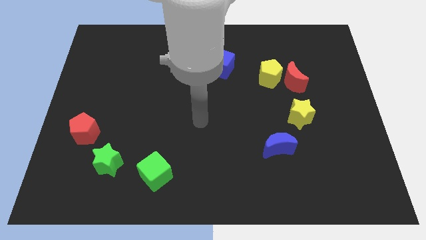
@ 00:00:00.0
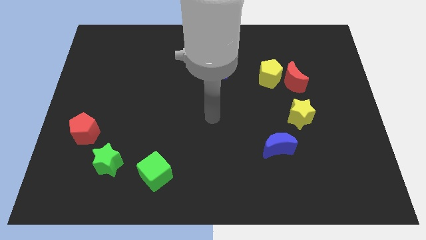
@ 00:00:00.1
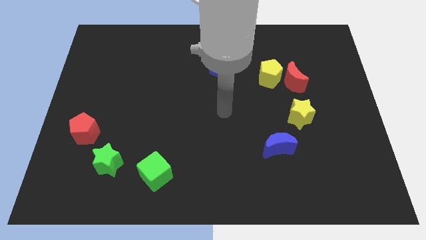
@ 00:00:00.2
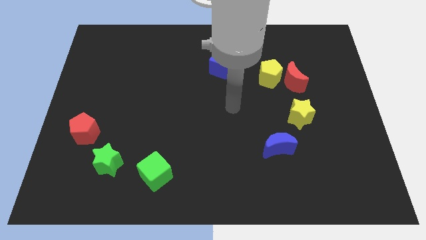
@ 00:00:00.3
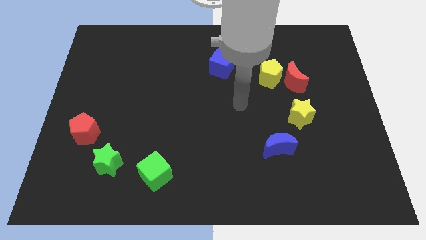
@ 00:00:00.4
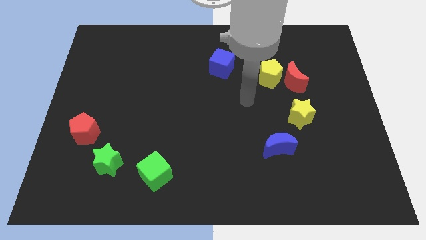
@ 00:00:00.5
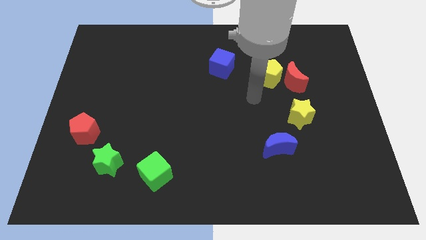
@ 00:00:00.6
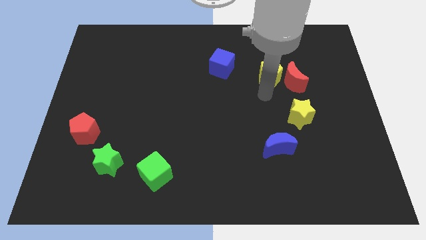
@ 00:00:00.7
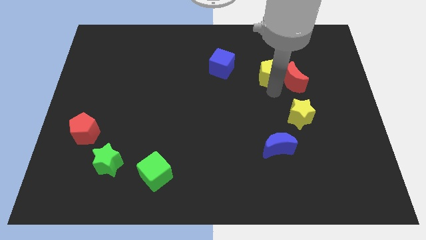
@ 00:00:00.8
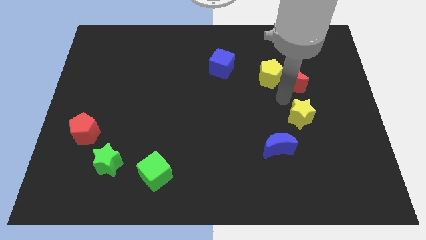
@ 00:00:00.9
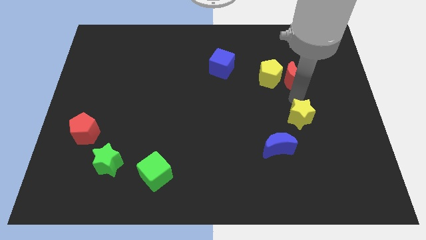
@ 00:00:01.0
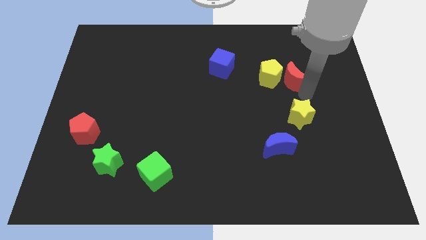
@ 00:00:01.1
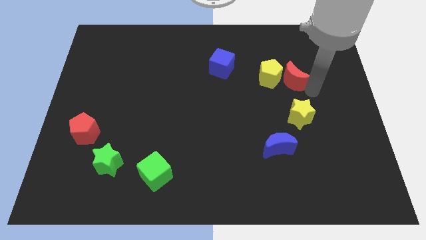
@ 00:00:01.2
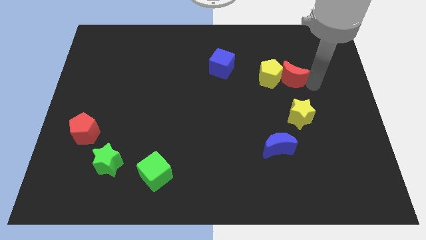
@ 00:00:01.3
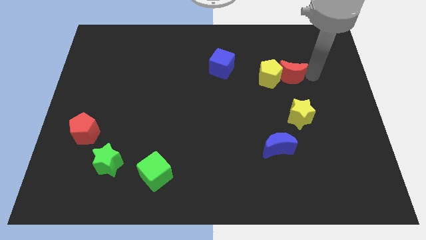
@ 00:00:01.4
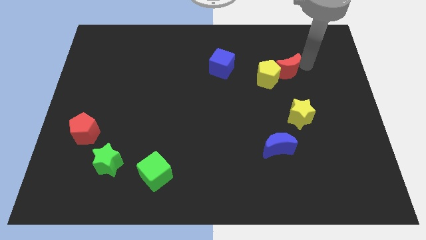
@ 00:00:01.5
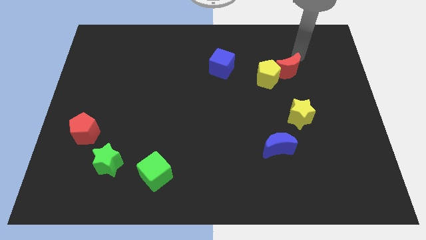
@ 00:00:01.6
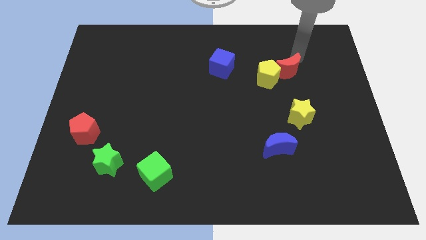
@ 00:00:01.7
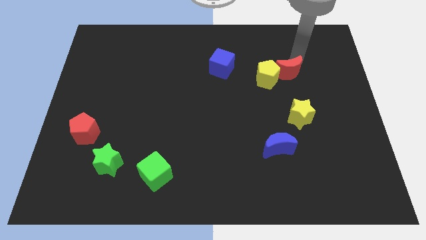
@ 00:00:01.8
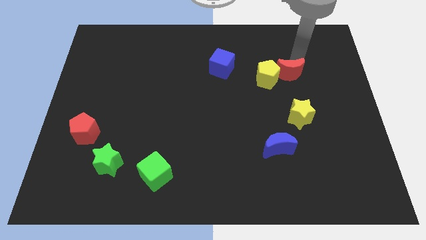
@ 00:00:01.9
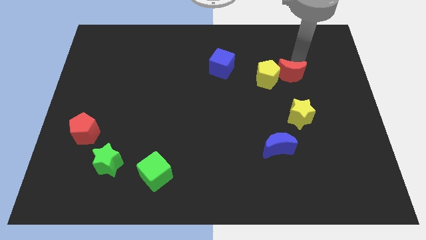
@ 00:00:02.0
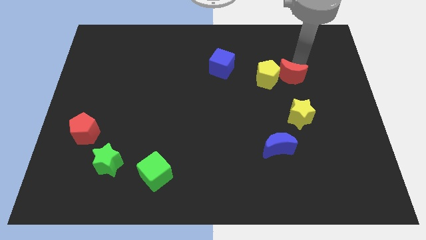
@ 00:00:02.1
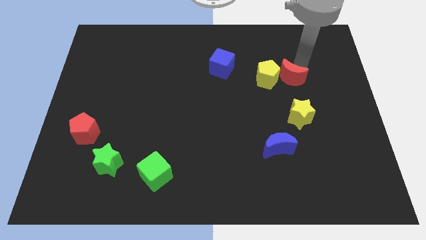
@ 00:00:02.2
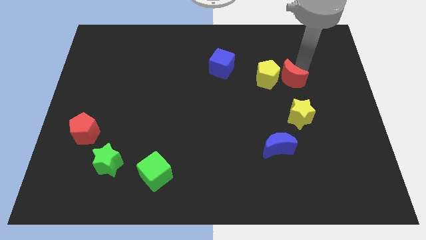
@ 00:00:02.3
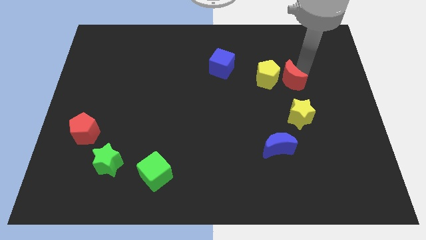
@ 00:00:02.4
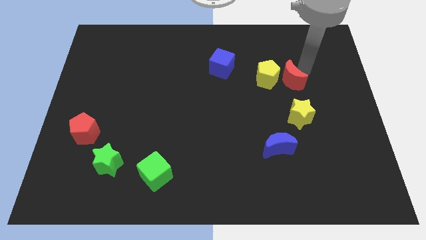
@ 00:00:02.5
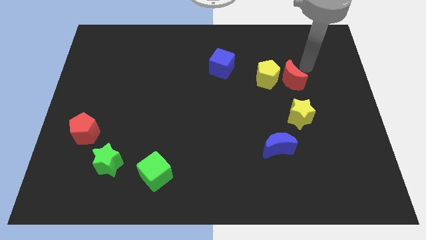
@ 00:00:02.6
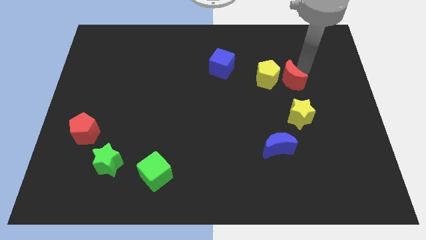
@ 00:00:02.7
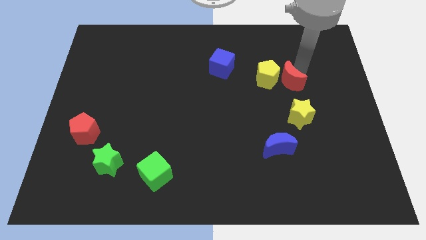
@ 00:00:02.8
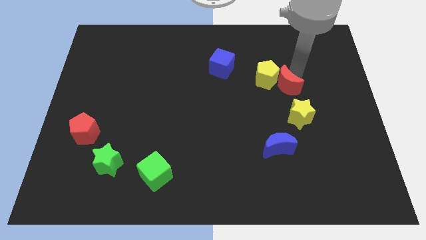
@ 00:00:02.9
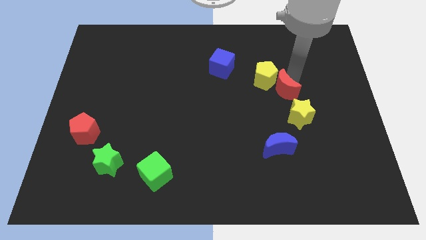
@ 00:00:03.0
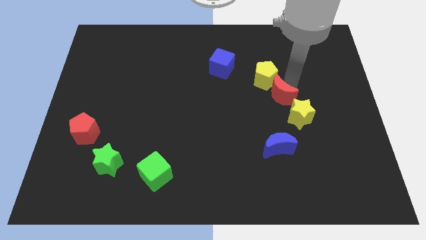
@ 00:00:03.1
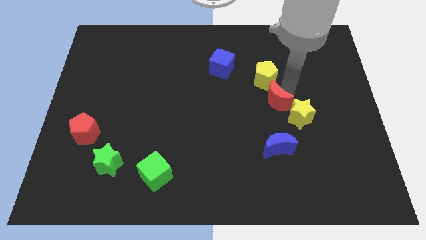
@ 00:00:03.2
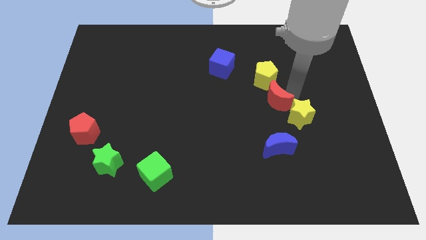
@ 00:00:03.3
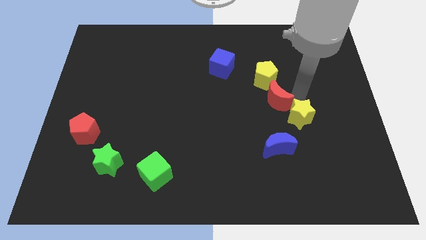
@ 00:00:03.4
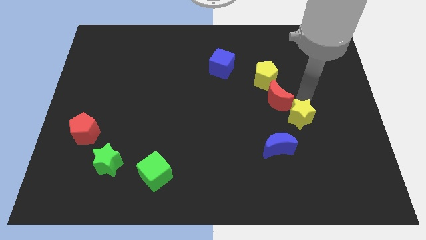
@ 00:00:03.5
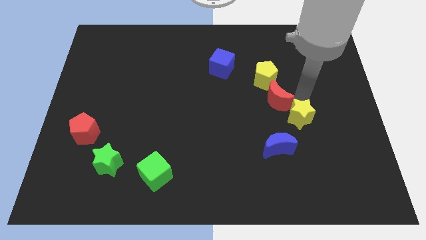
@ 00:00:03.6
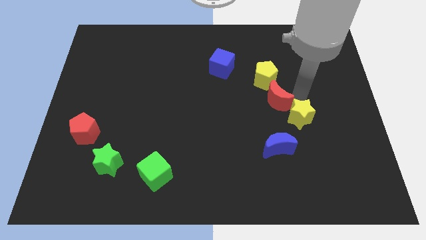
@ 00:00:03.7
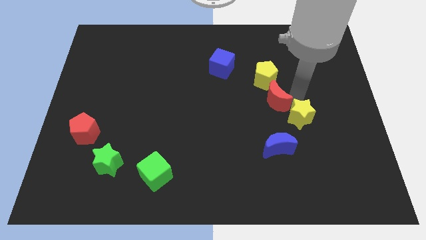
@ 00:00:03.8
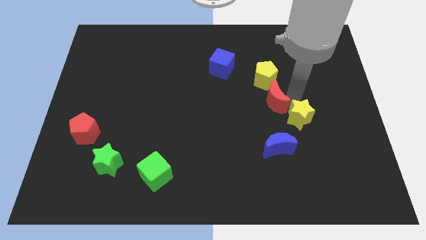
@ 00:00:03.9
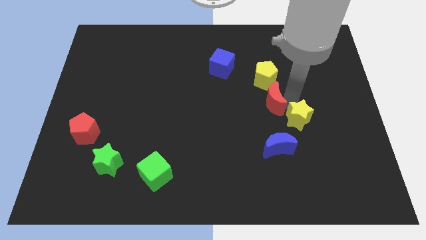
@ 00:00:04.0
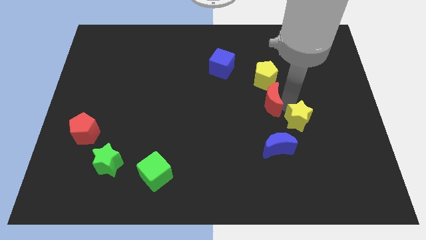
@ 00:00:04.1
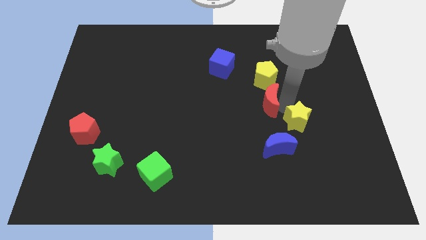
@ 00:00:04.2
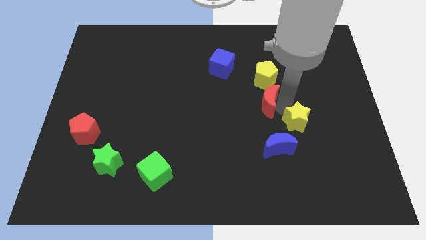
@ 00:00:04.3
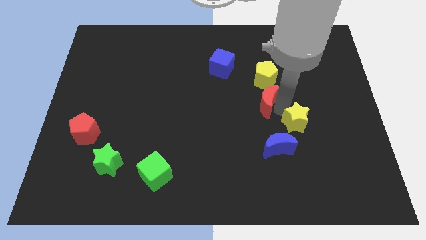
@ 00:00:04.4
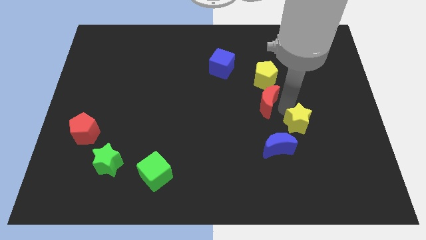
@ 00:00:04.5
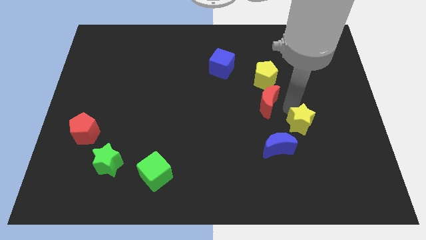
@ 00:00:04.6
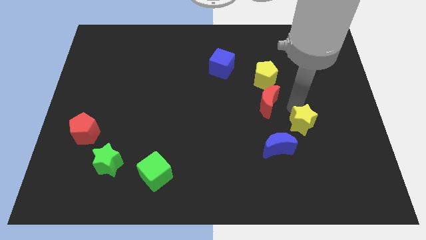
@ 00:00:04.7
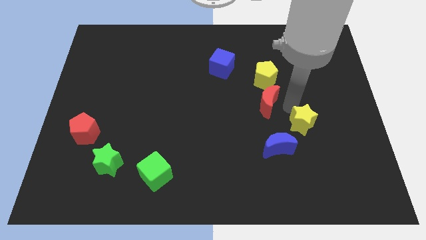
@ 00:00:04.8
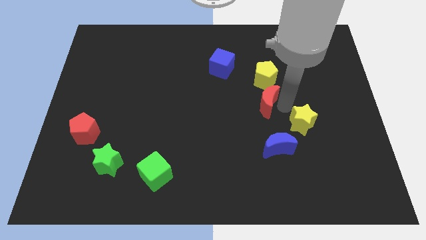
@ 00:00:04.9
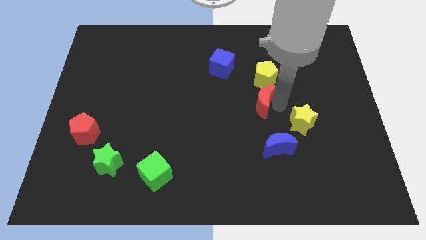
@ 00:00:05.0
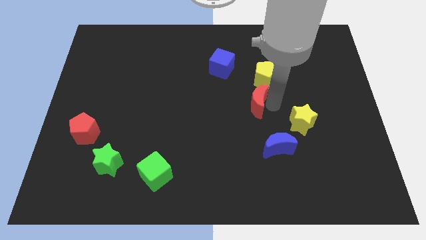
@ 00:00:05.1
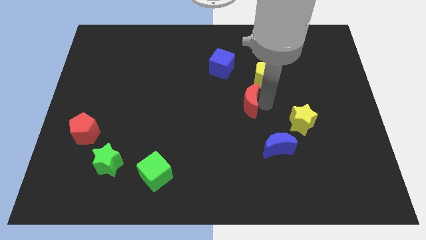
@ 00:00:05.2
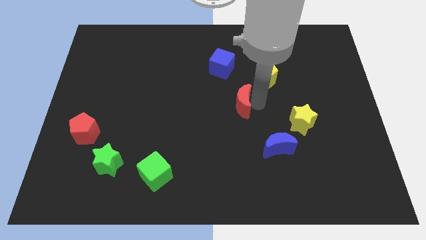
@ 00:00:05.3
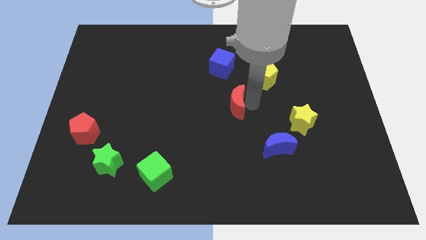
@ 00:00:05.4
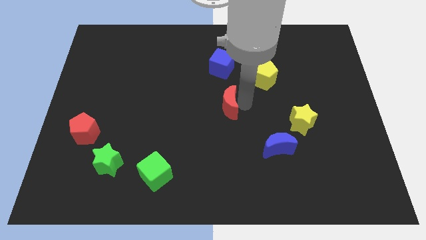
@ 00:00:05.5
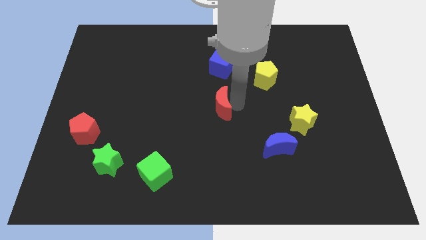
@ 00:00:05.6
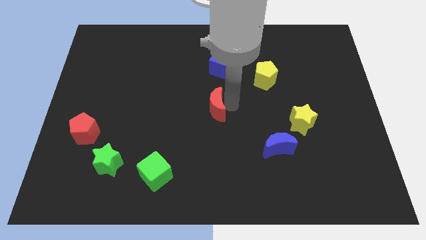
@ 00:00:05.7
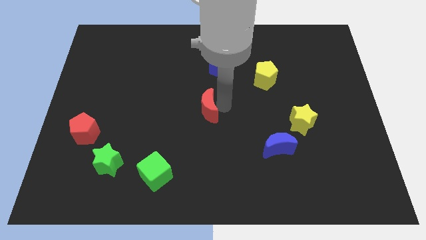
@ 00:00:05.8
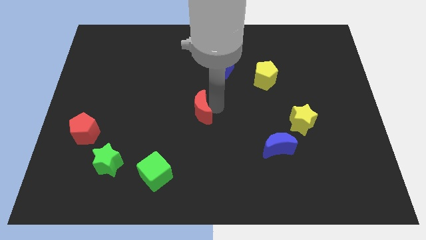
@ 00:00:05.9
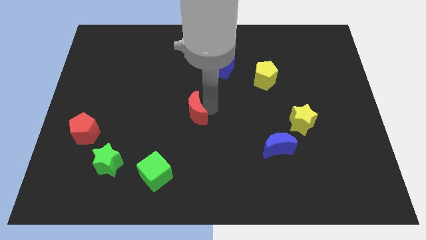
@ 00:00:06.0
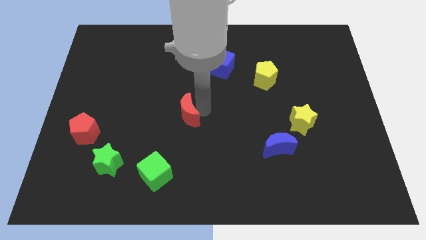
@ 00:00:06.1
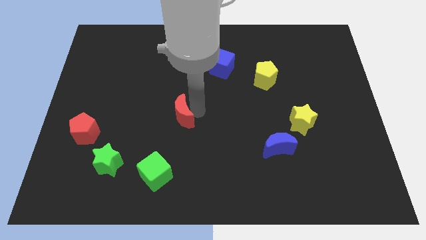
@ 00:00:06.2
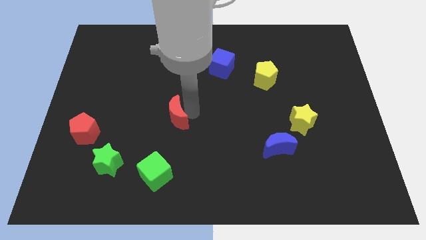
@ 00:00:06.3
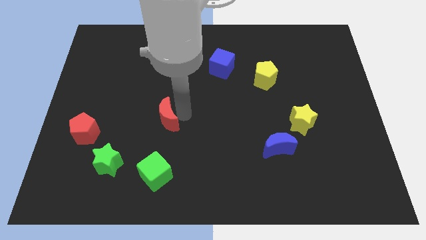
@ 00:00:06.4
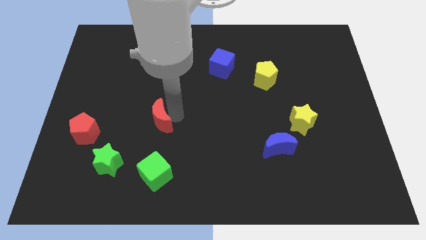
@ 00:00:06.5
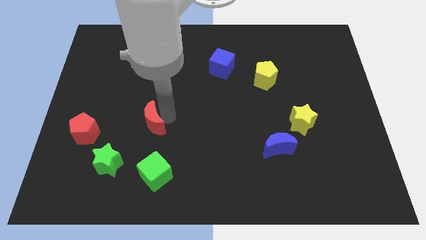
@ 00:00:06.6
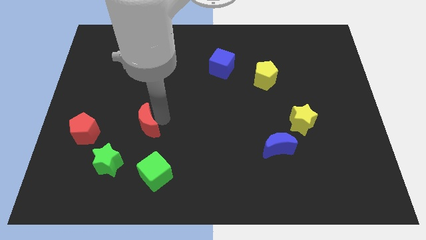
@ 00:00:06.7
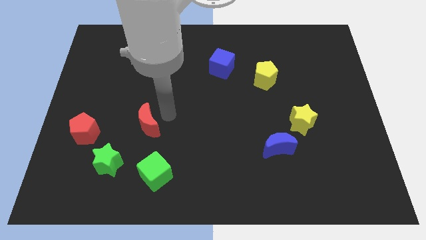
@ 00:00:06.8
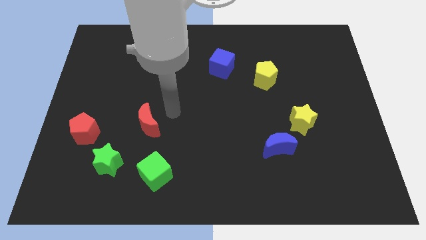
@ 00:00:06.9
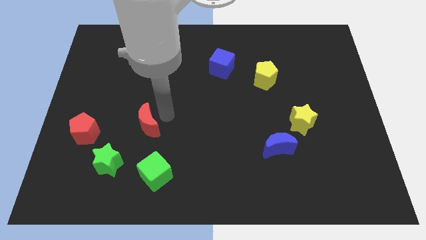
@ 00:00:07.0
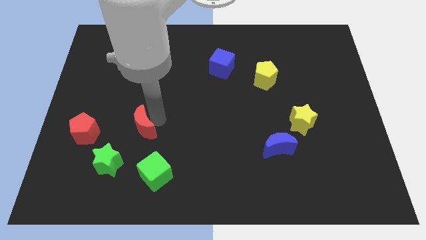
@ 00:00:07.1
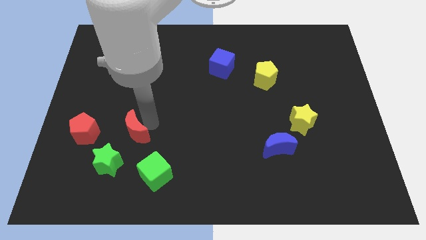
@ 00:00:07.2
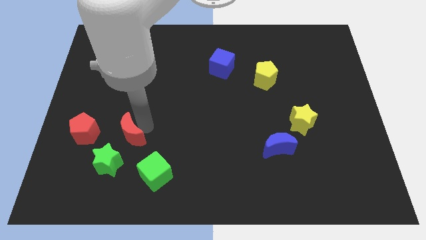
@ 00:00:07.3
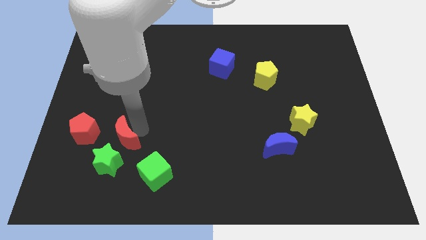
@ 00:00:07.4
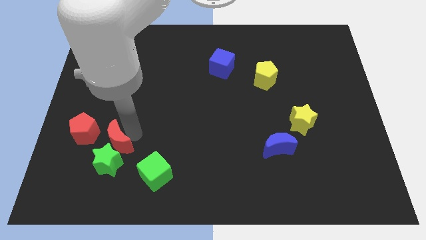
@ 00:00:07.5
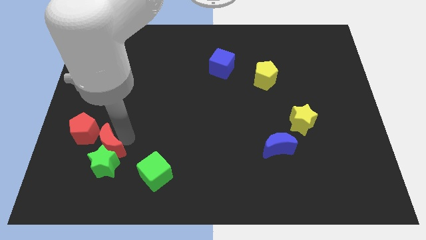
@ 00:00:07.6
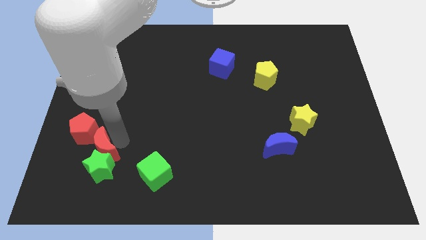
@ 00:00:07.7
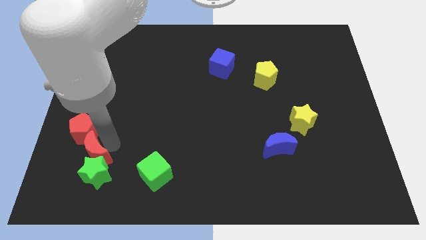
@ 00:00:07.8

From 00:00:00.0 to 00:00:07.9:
push the red moon to the bottom side of the red pentagon

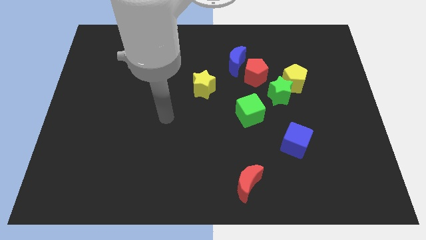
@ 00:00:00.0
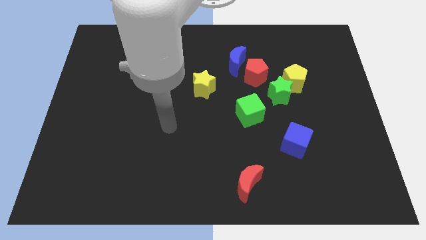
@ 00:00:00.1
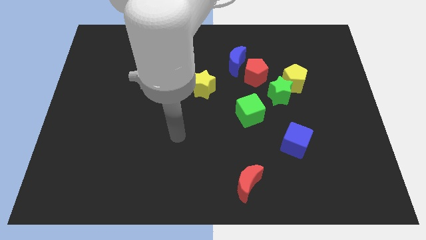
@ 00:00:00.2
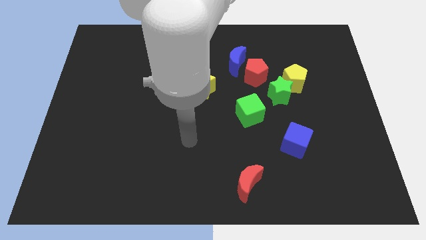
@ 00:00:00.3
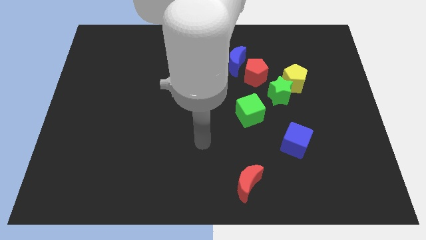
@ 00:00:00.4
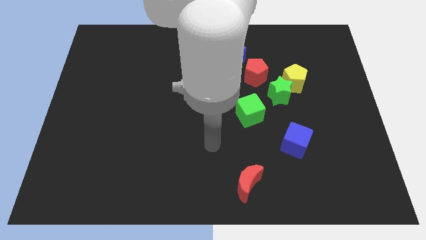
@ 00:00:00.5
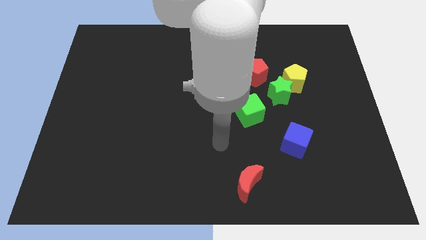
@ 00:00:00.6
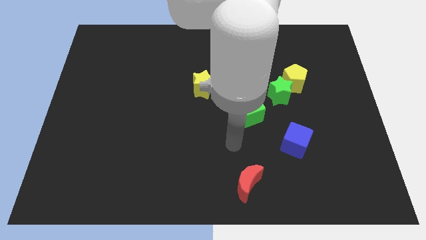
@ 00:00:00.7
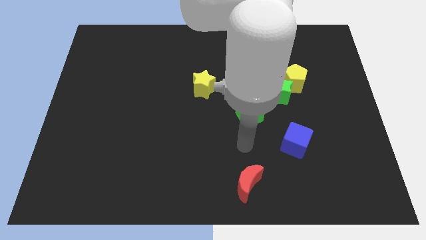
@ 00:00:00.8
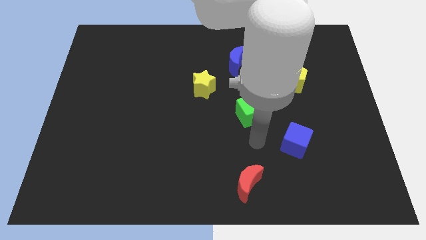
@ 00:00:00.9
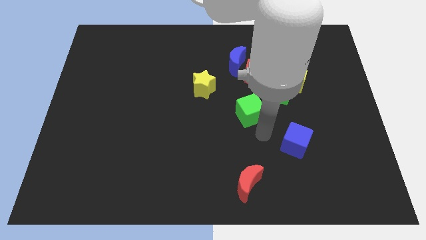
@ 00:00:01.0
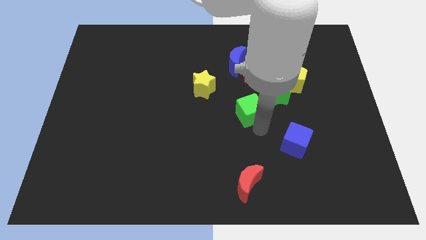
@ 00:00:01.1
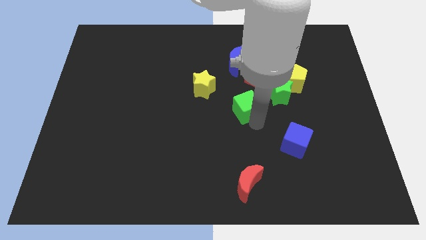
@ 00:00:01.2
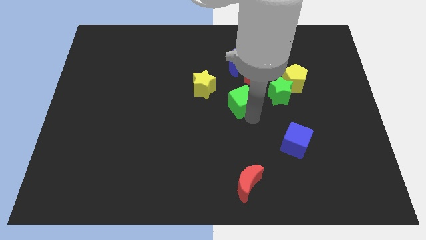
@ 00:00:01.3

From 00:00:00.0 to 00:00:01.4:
push the green cube to the bottom left of the red pentagon
